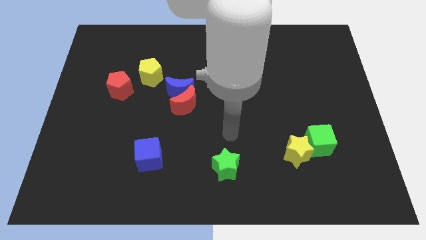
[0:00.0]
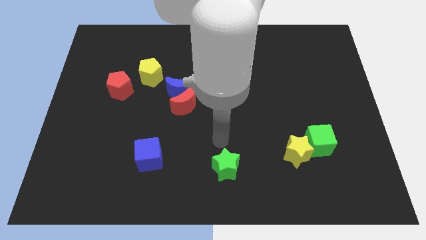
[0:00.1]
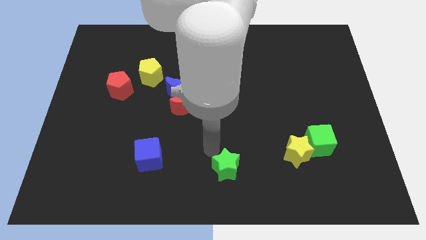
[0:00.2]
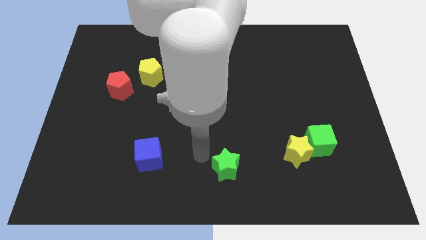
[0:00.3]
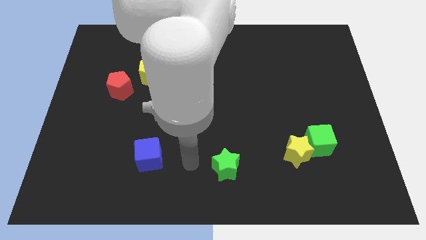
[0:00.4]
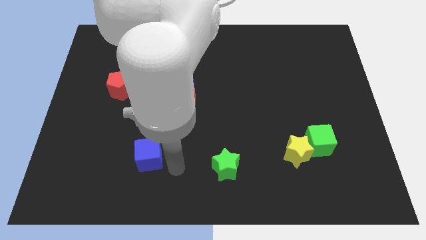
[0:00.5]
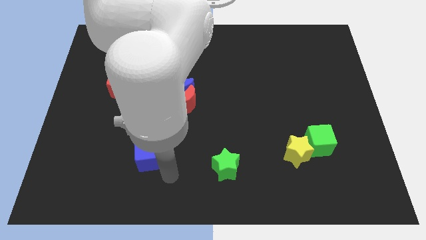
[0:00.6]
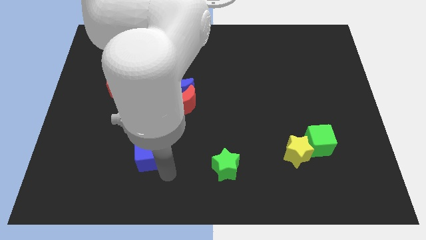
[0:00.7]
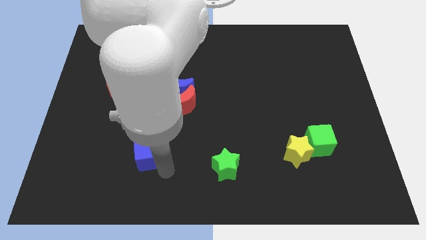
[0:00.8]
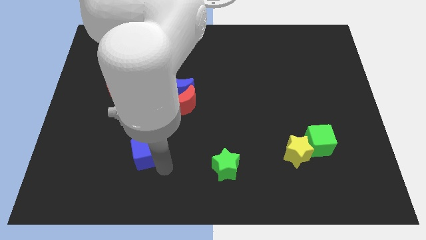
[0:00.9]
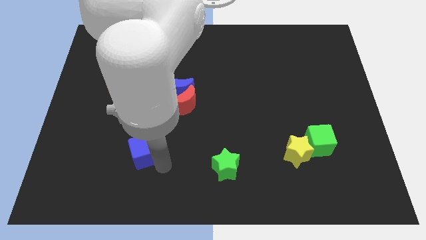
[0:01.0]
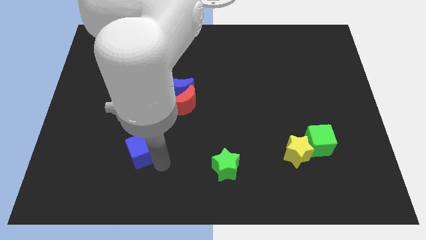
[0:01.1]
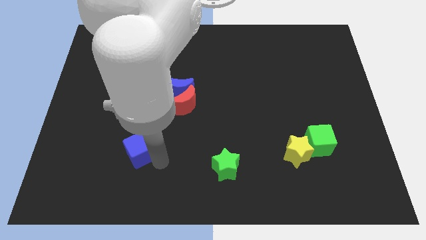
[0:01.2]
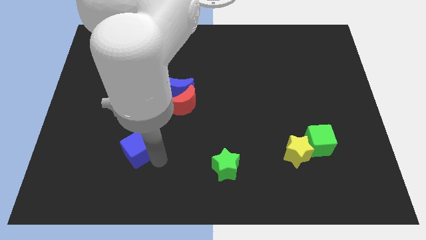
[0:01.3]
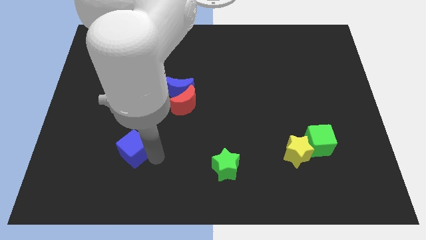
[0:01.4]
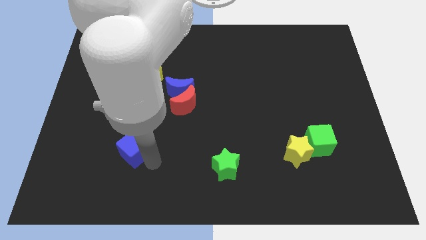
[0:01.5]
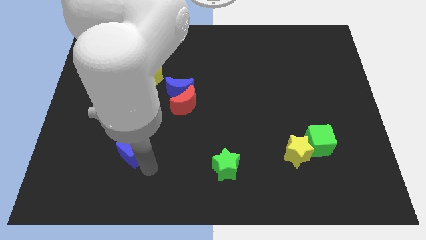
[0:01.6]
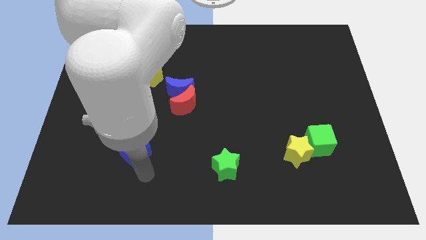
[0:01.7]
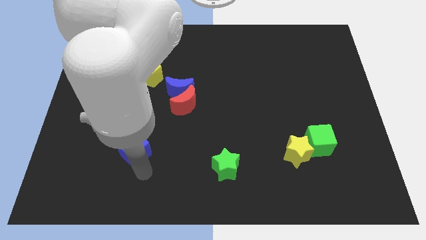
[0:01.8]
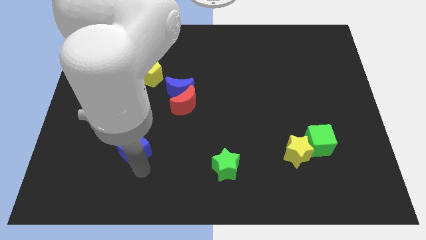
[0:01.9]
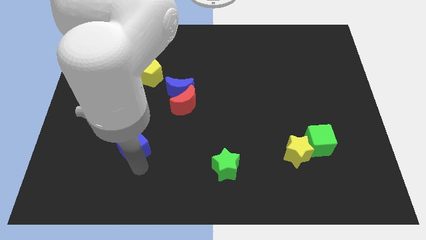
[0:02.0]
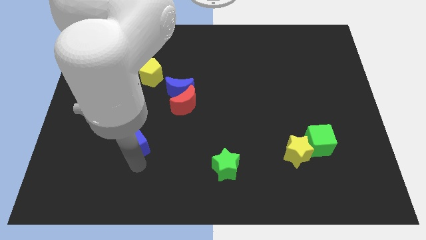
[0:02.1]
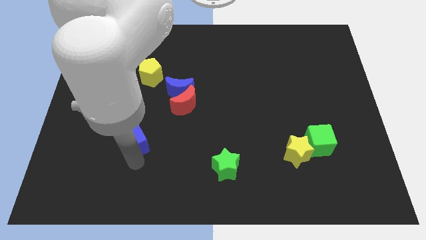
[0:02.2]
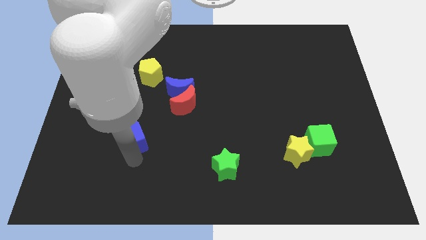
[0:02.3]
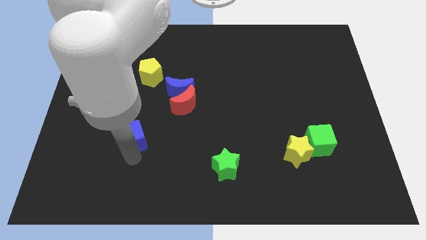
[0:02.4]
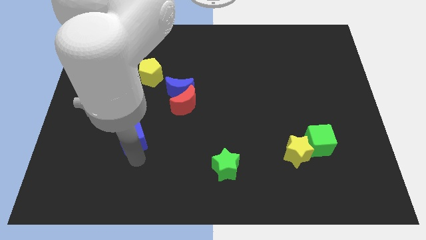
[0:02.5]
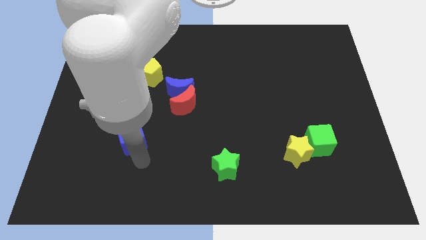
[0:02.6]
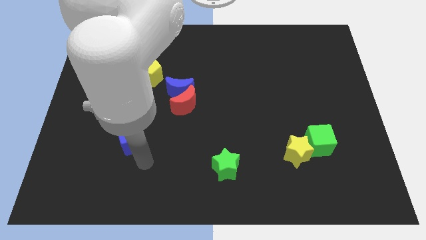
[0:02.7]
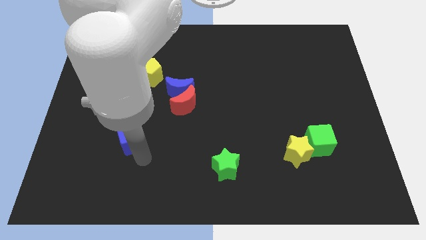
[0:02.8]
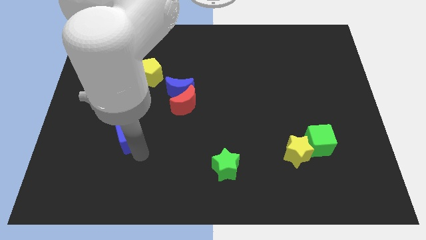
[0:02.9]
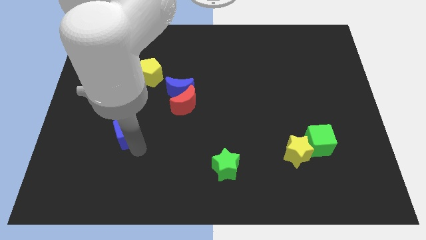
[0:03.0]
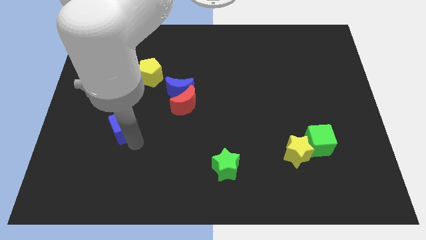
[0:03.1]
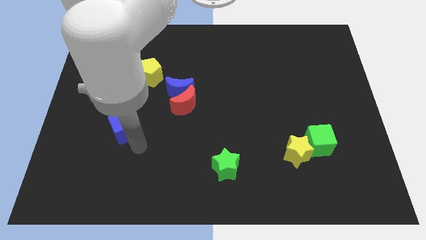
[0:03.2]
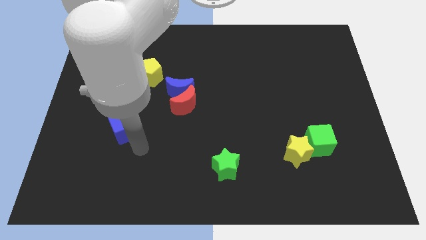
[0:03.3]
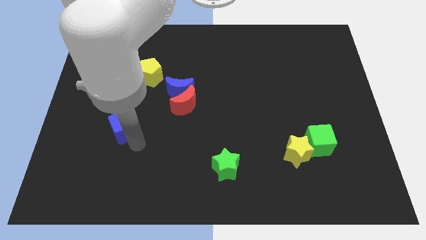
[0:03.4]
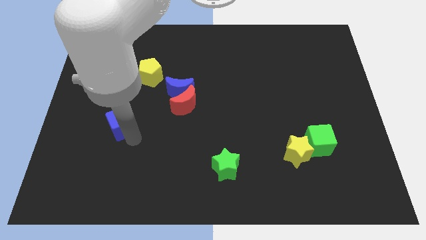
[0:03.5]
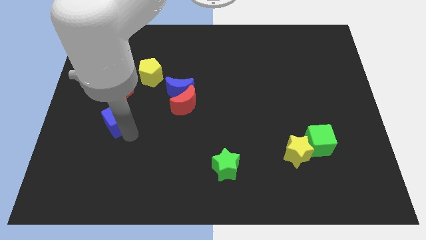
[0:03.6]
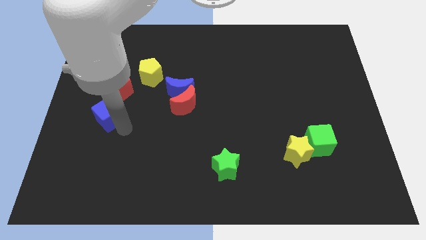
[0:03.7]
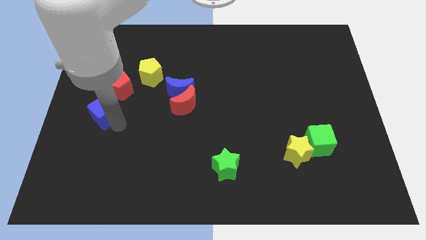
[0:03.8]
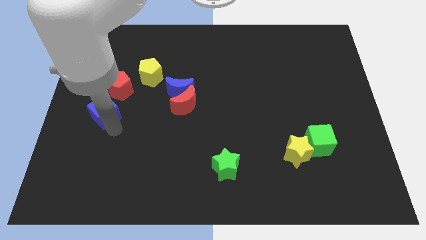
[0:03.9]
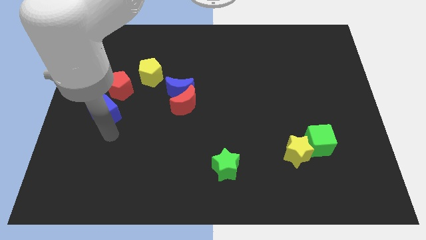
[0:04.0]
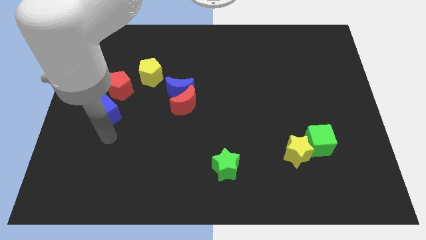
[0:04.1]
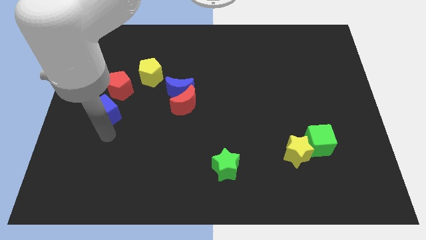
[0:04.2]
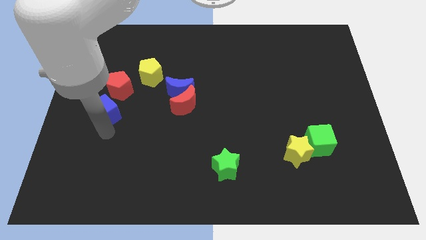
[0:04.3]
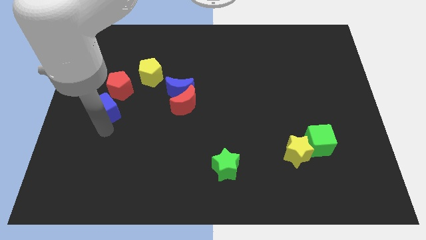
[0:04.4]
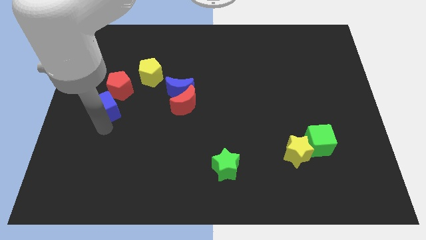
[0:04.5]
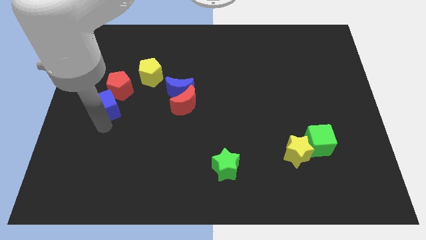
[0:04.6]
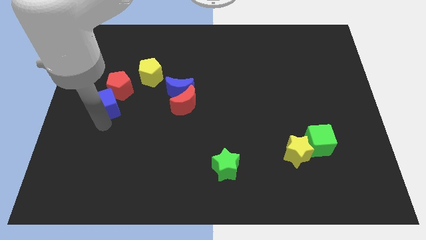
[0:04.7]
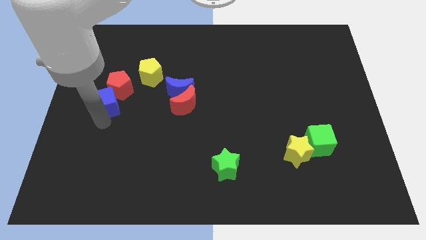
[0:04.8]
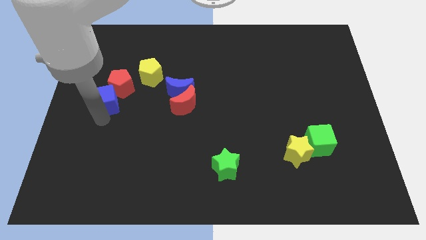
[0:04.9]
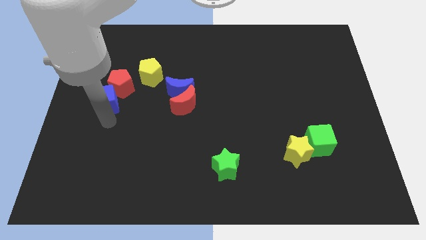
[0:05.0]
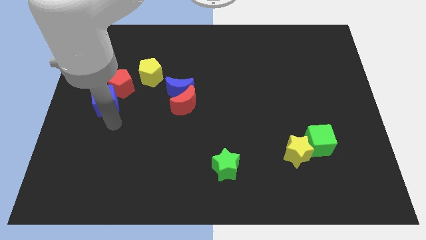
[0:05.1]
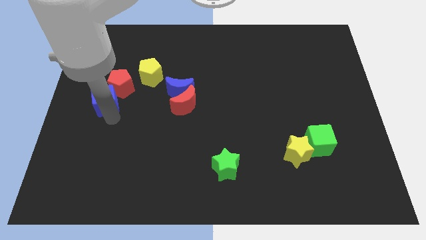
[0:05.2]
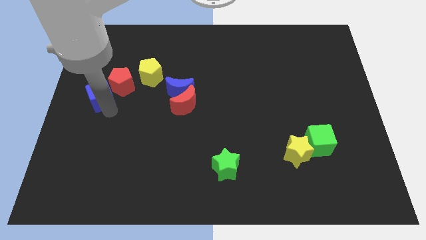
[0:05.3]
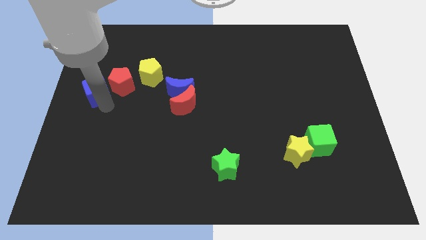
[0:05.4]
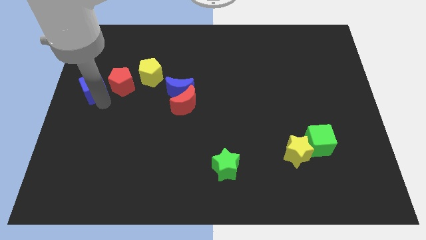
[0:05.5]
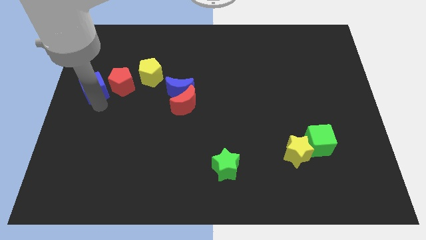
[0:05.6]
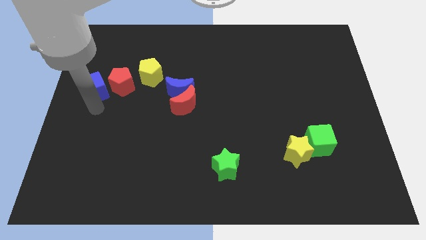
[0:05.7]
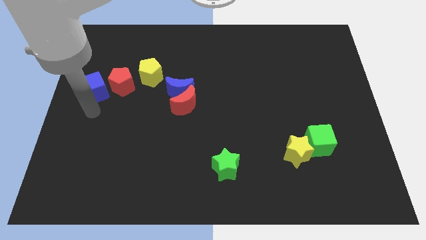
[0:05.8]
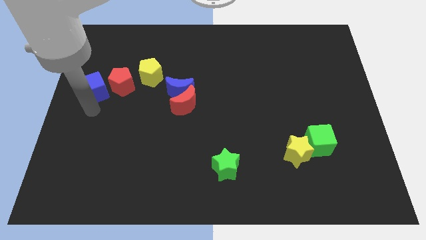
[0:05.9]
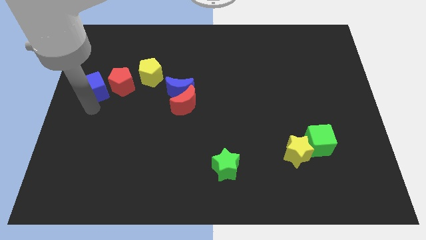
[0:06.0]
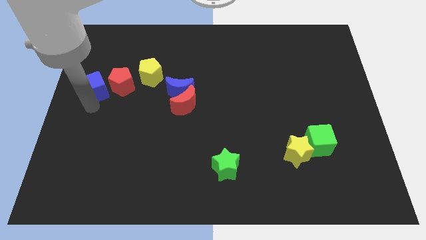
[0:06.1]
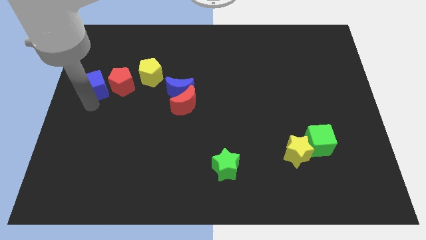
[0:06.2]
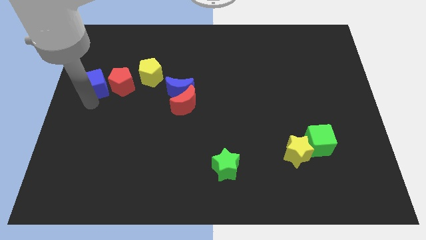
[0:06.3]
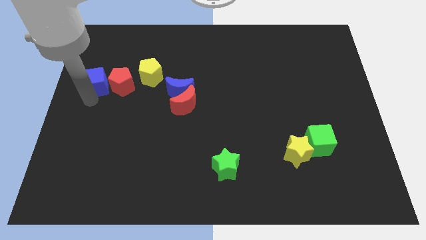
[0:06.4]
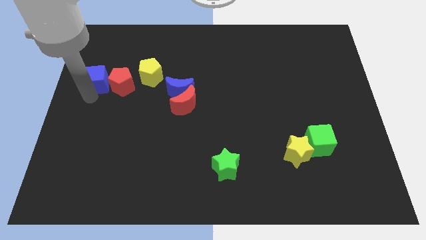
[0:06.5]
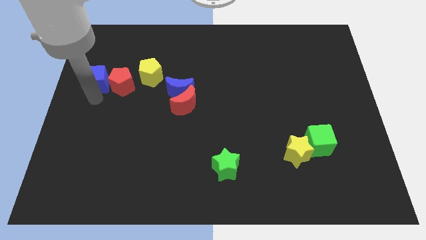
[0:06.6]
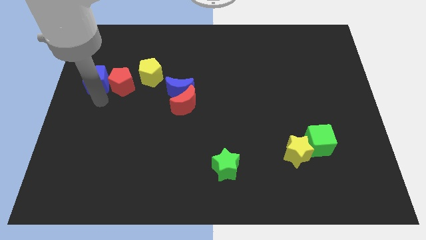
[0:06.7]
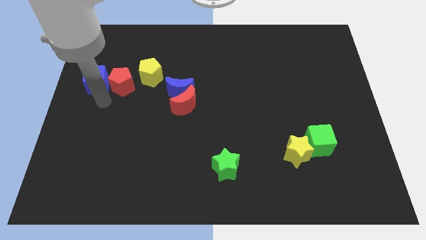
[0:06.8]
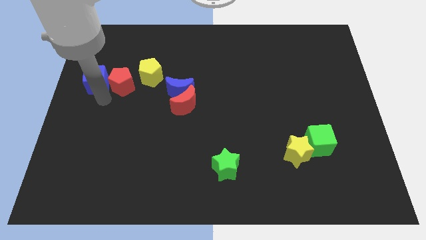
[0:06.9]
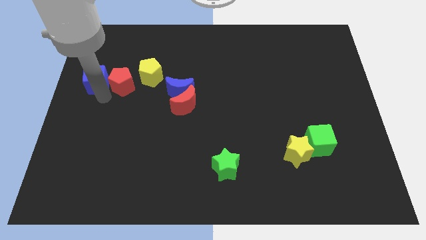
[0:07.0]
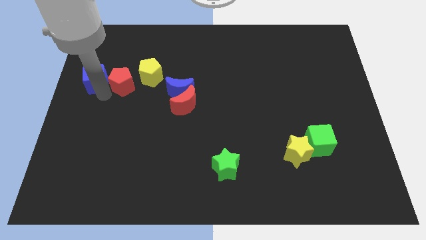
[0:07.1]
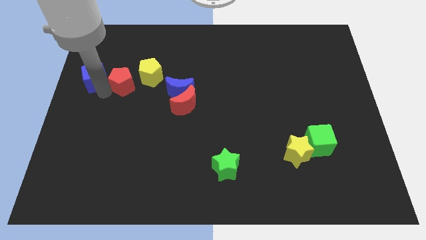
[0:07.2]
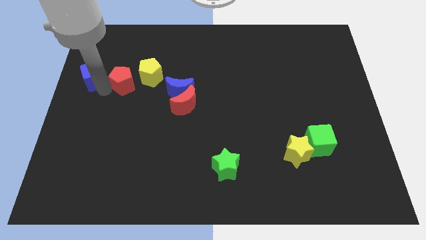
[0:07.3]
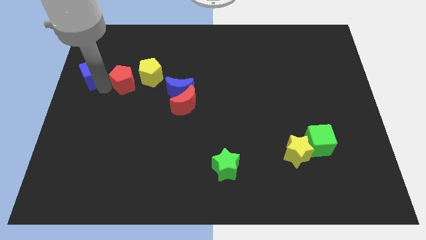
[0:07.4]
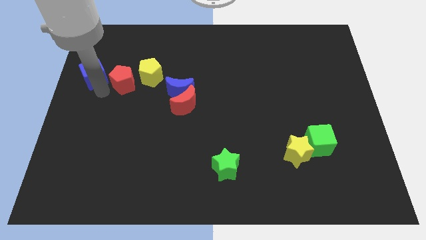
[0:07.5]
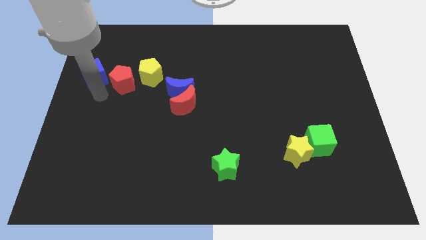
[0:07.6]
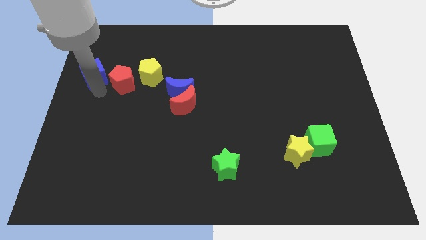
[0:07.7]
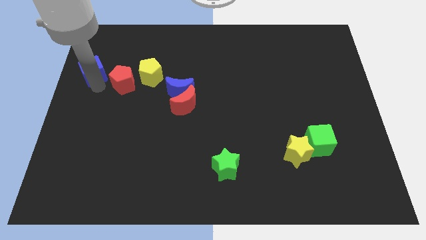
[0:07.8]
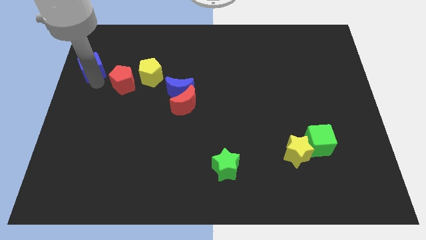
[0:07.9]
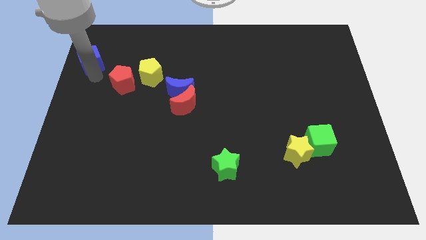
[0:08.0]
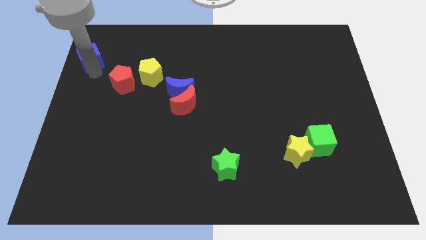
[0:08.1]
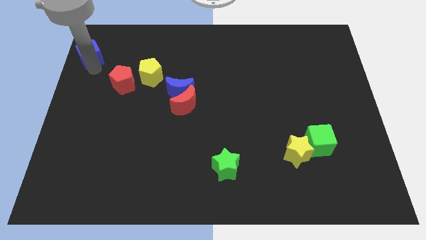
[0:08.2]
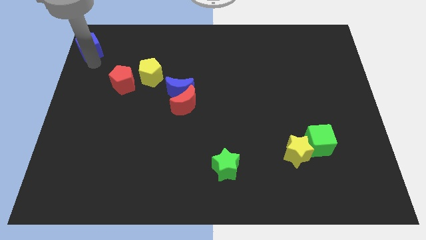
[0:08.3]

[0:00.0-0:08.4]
push the blue cube to the top left corner
